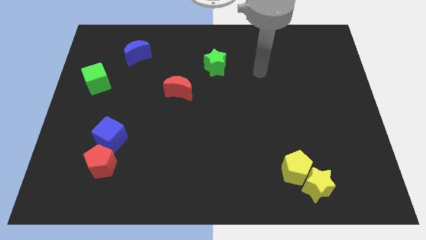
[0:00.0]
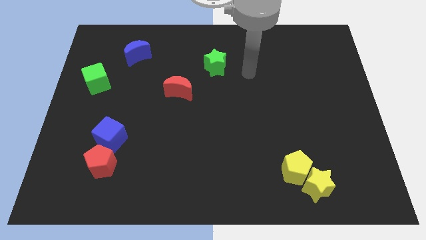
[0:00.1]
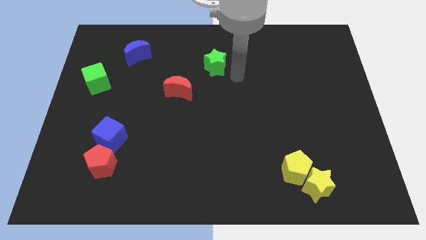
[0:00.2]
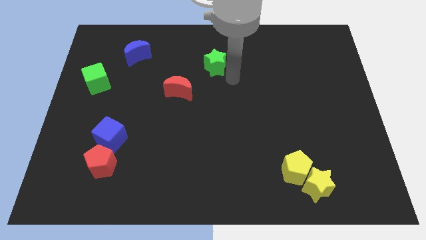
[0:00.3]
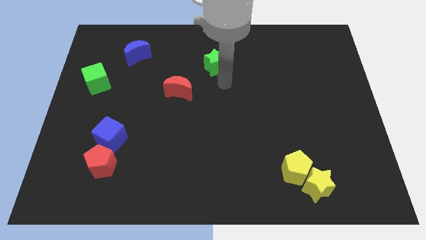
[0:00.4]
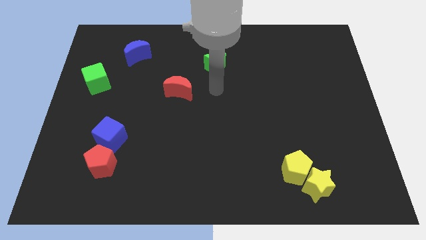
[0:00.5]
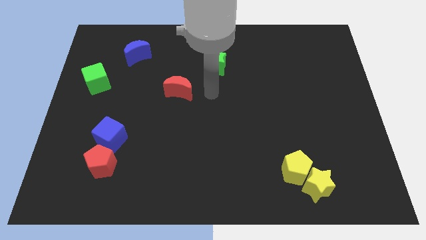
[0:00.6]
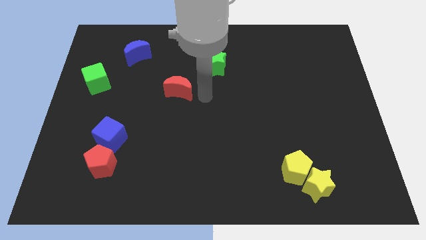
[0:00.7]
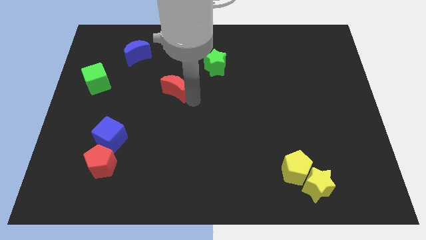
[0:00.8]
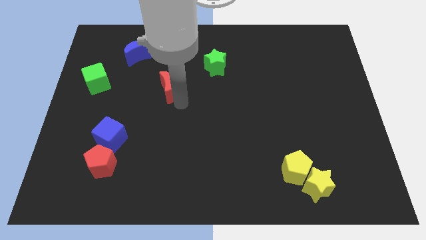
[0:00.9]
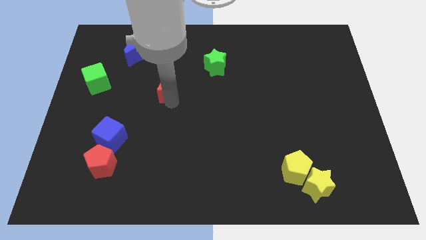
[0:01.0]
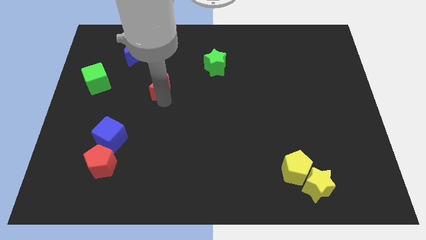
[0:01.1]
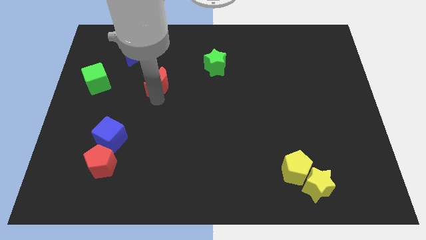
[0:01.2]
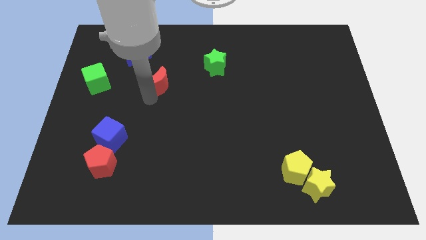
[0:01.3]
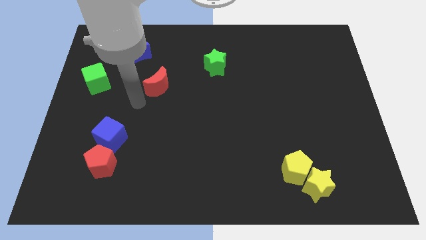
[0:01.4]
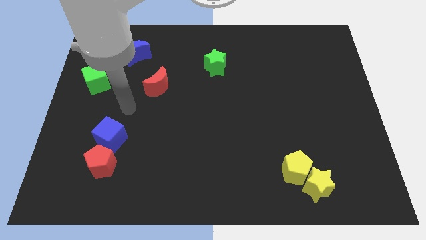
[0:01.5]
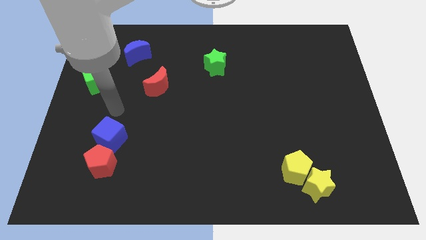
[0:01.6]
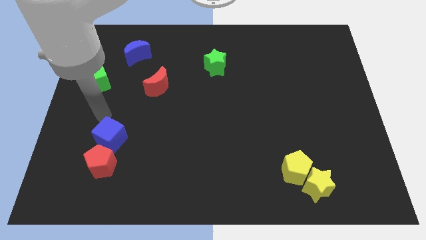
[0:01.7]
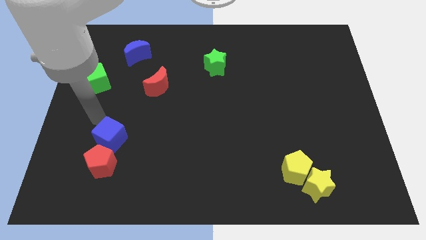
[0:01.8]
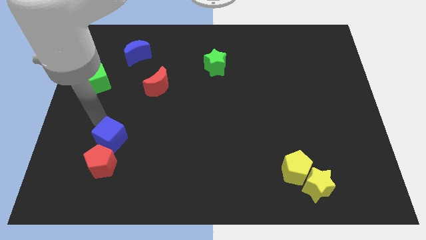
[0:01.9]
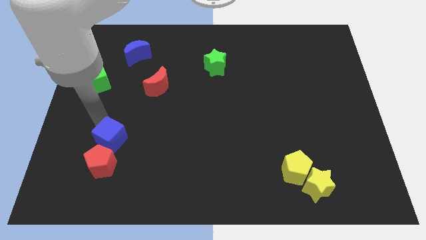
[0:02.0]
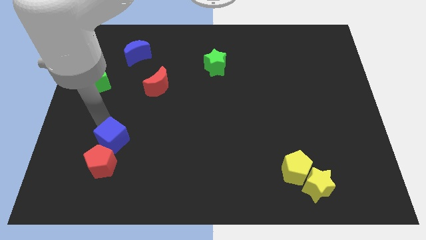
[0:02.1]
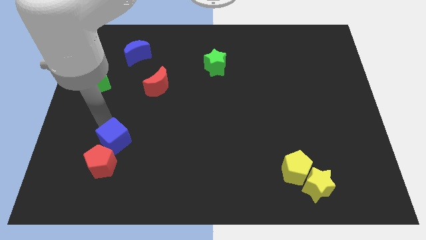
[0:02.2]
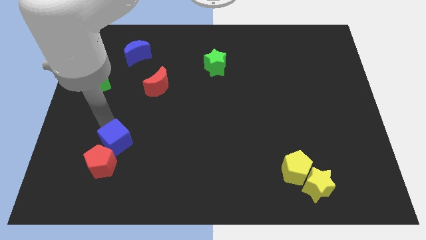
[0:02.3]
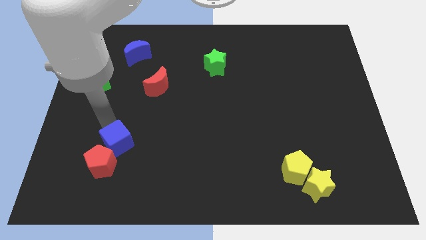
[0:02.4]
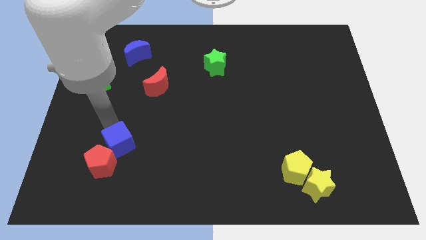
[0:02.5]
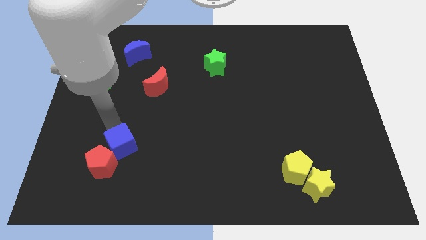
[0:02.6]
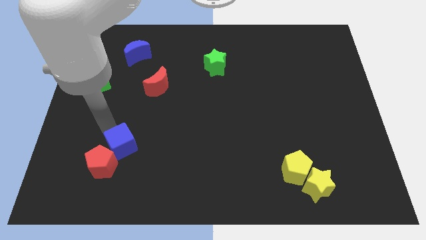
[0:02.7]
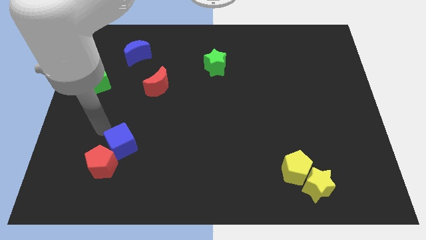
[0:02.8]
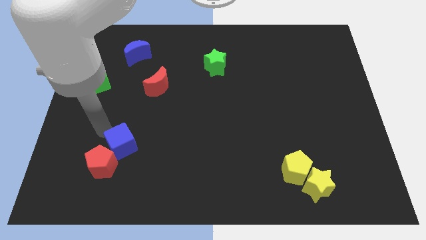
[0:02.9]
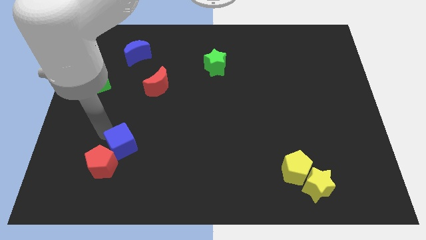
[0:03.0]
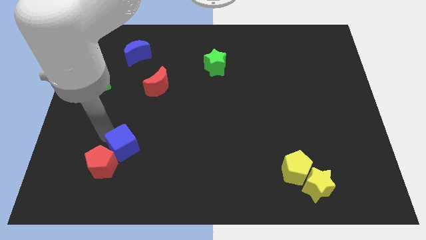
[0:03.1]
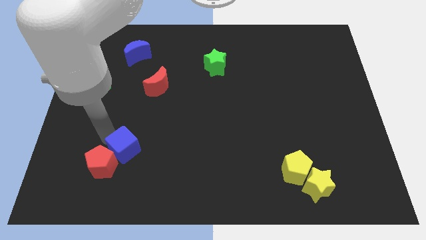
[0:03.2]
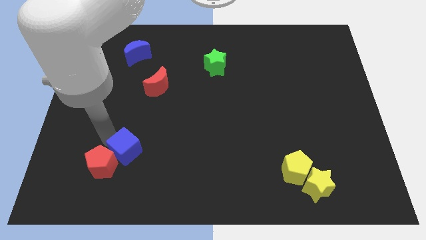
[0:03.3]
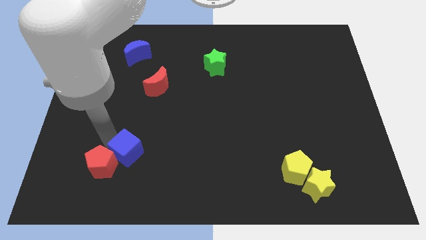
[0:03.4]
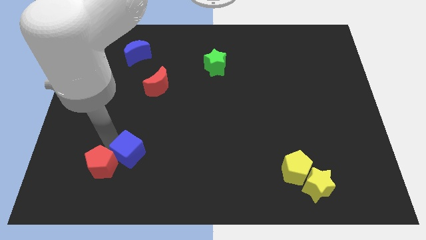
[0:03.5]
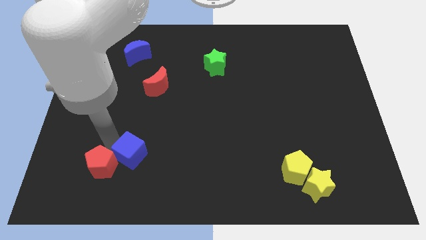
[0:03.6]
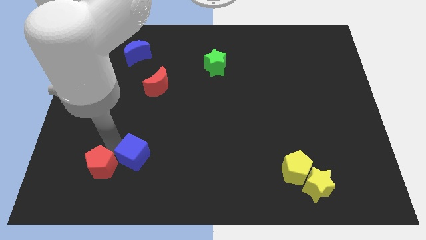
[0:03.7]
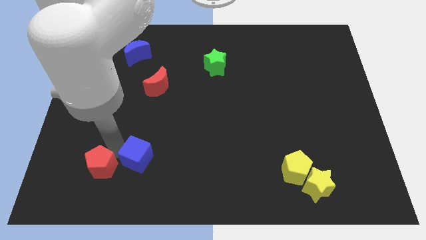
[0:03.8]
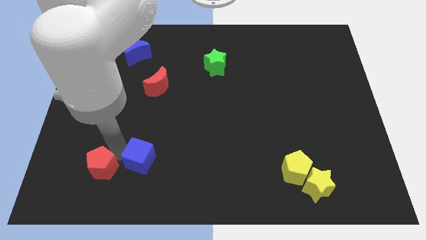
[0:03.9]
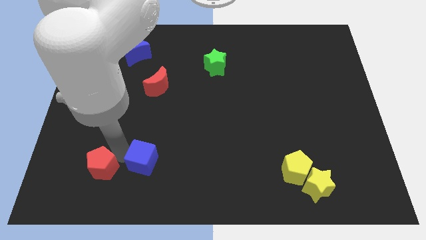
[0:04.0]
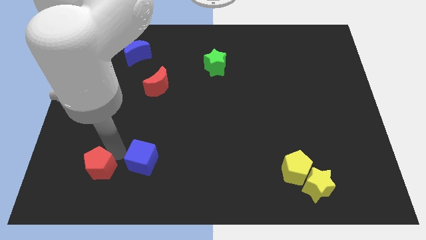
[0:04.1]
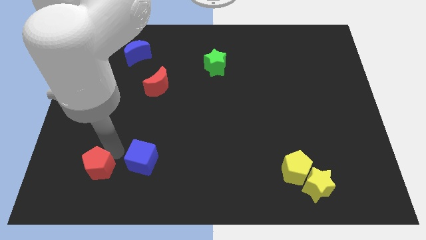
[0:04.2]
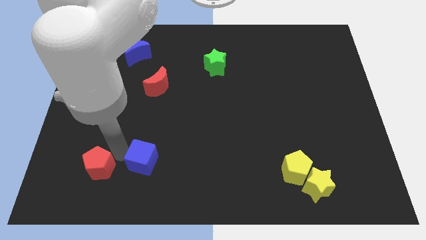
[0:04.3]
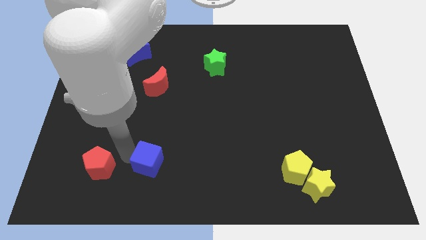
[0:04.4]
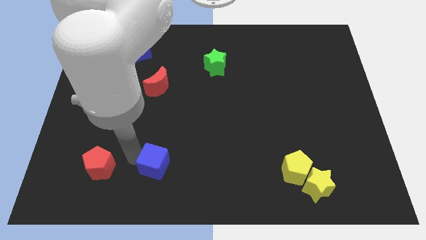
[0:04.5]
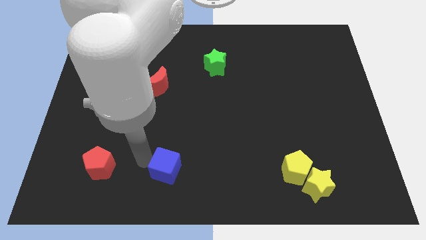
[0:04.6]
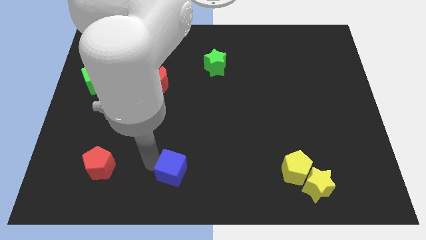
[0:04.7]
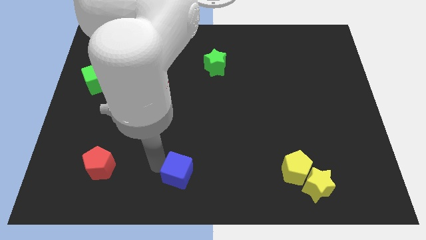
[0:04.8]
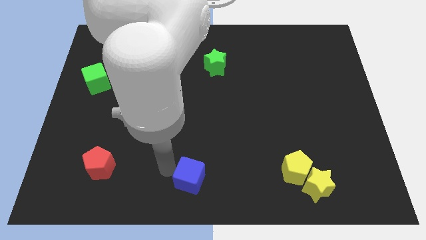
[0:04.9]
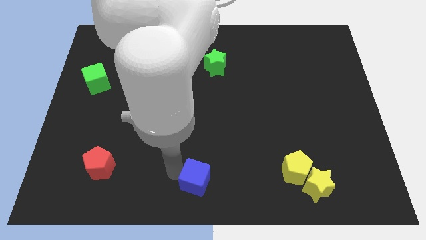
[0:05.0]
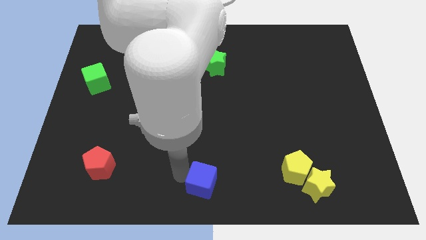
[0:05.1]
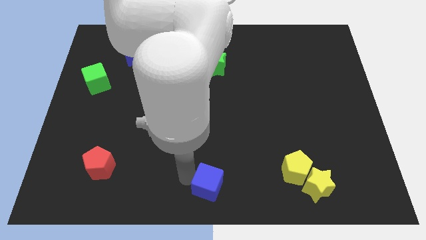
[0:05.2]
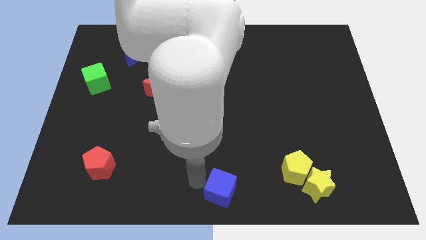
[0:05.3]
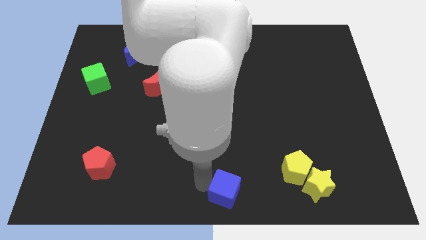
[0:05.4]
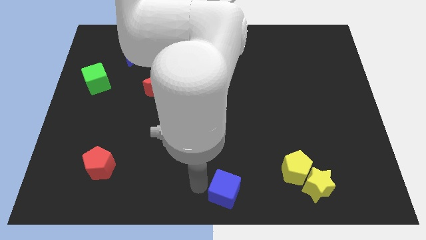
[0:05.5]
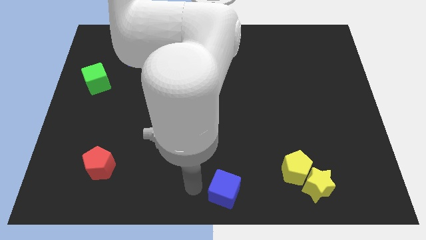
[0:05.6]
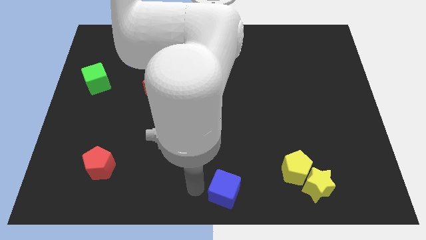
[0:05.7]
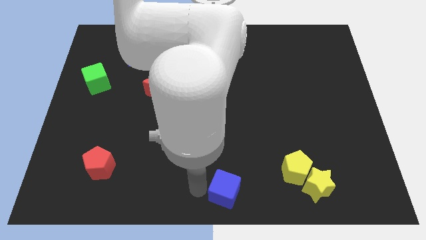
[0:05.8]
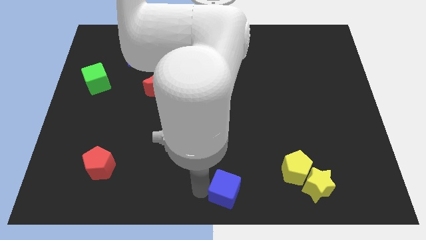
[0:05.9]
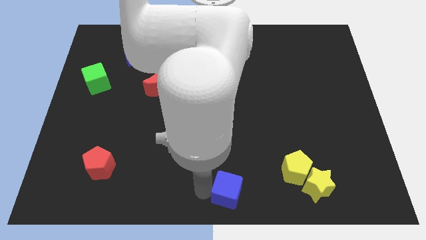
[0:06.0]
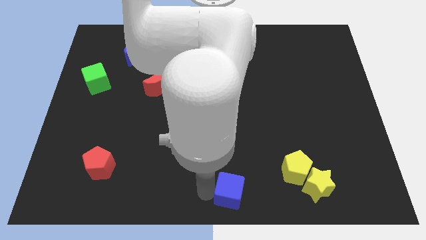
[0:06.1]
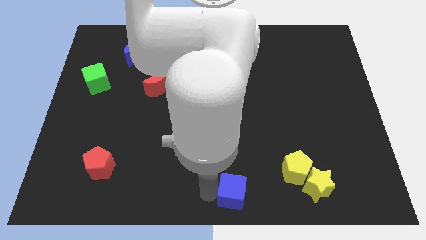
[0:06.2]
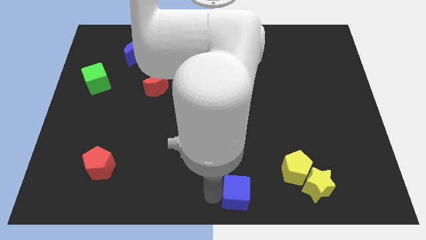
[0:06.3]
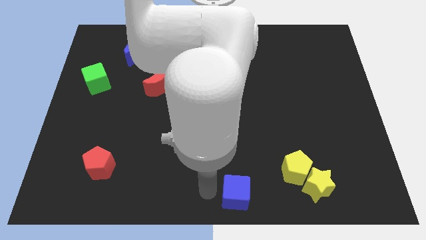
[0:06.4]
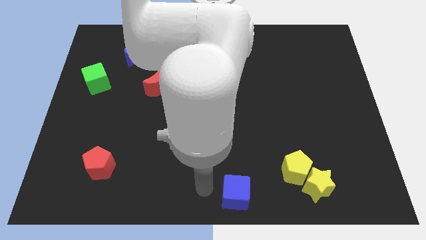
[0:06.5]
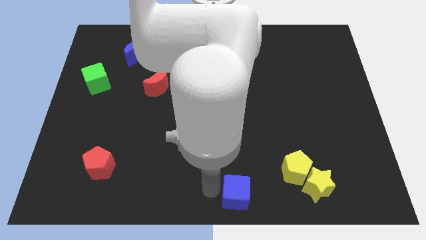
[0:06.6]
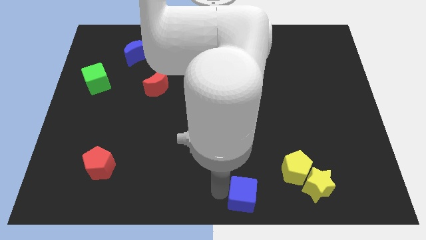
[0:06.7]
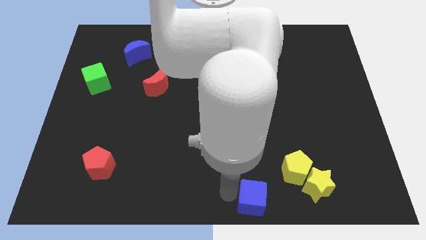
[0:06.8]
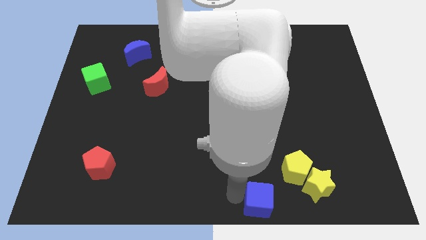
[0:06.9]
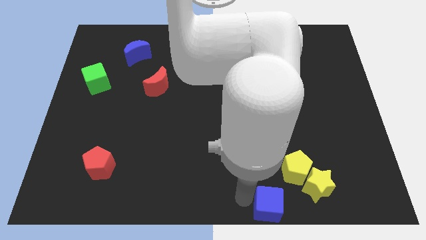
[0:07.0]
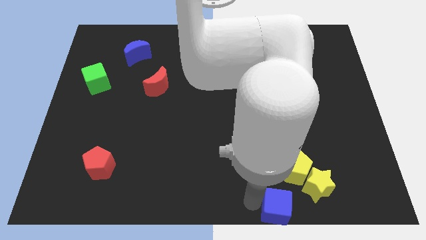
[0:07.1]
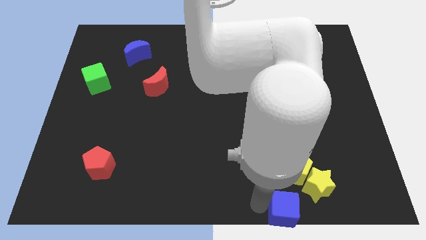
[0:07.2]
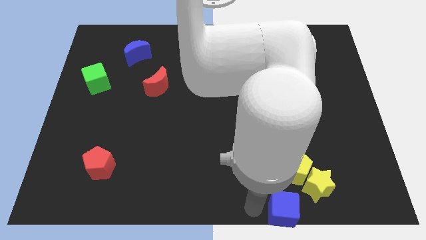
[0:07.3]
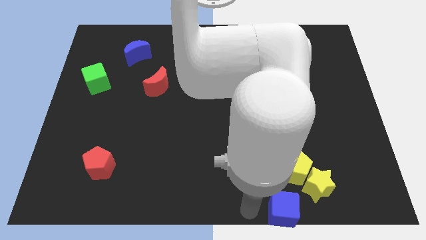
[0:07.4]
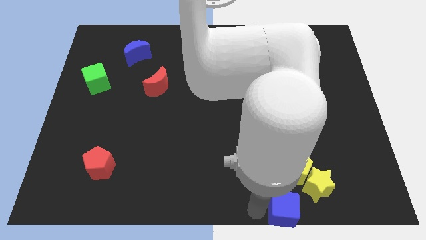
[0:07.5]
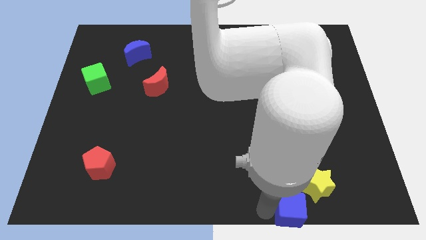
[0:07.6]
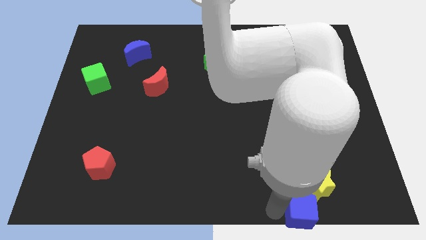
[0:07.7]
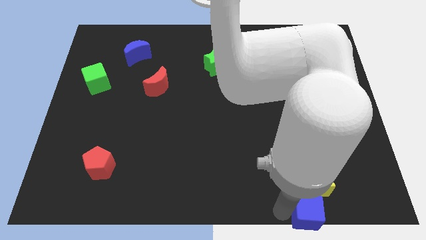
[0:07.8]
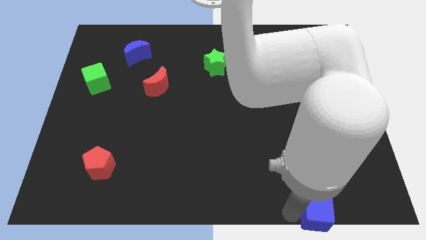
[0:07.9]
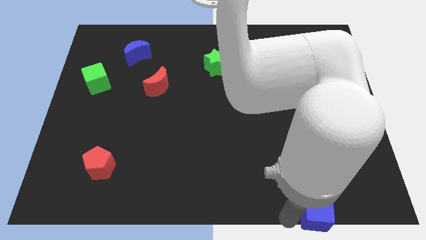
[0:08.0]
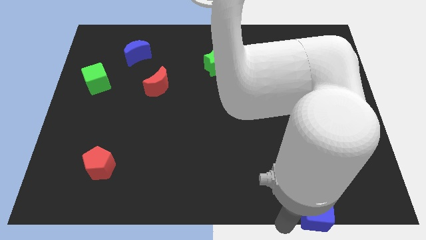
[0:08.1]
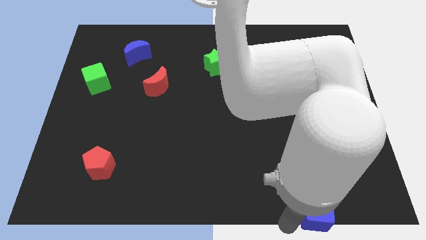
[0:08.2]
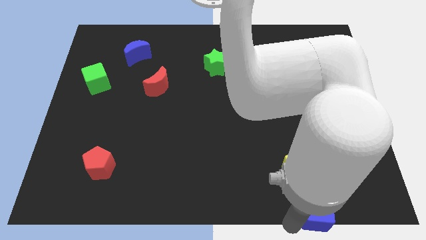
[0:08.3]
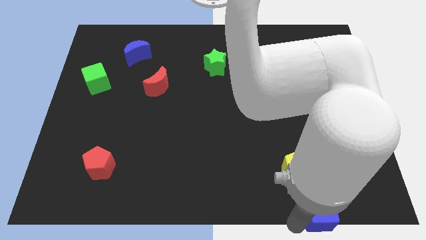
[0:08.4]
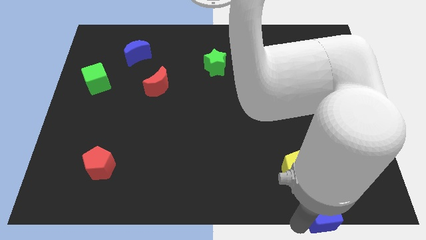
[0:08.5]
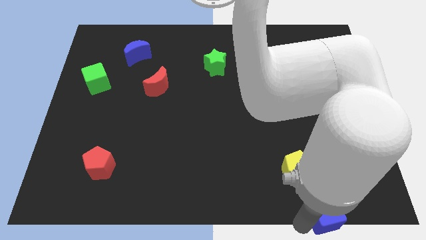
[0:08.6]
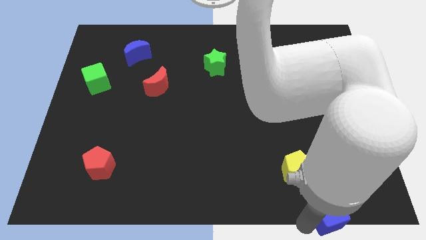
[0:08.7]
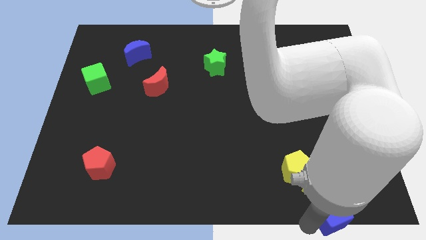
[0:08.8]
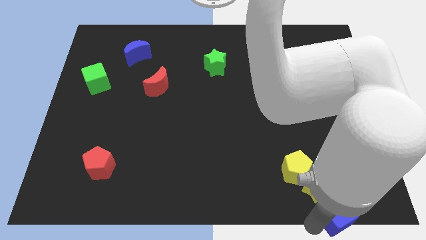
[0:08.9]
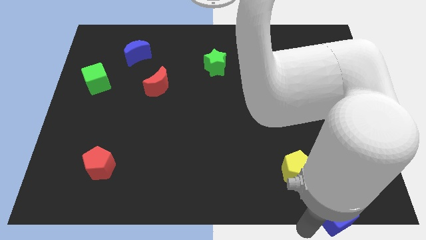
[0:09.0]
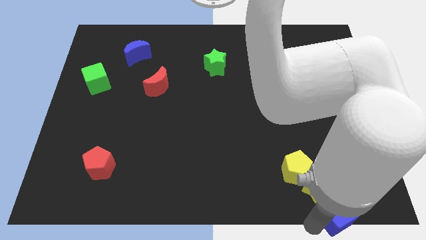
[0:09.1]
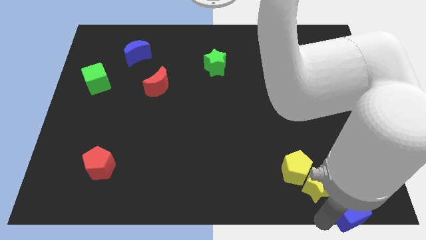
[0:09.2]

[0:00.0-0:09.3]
slide the blue cube to the lower right corner
